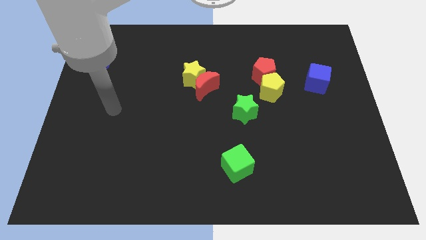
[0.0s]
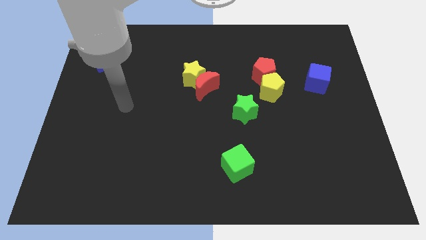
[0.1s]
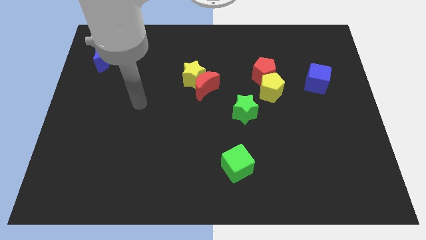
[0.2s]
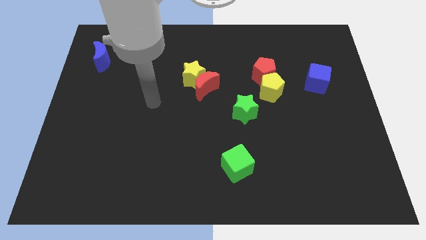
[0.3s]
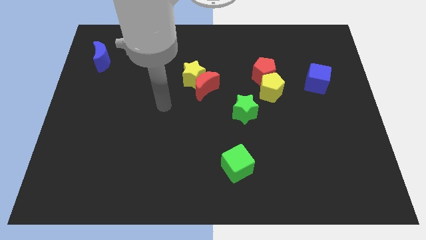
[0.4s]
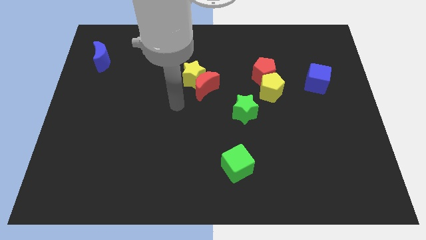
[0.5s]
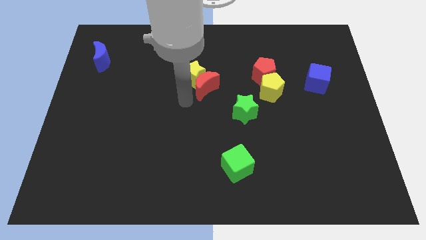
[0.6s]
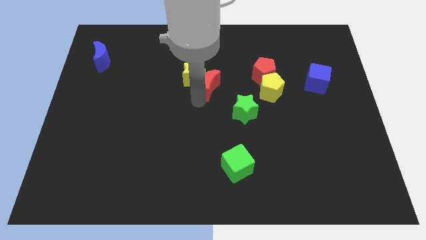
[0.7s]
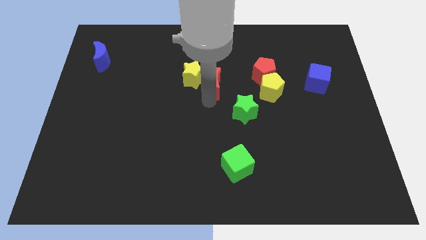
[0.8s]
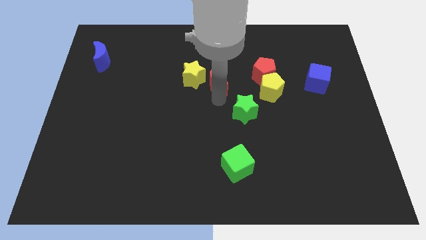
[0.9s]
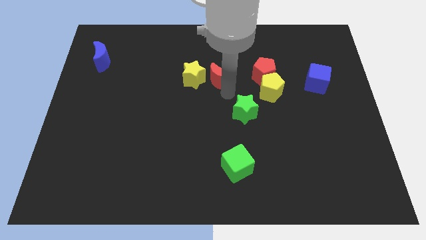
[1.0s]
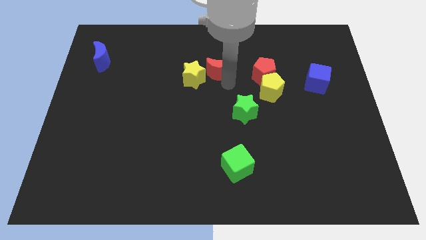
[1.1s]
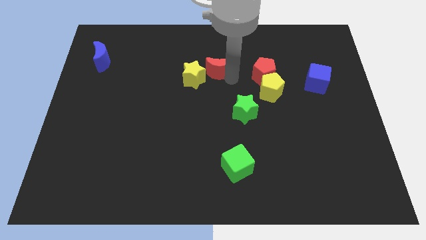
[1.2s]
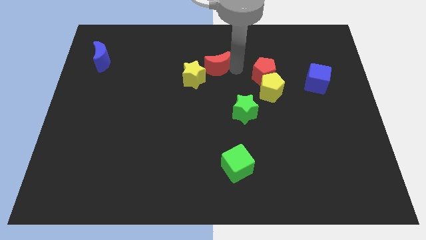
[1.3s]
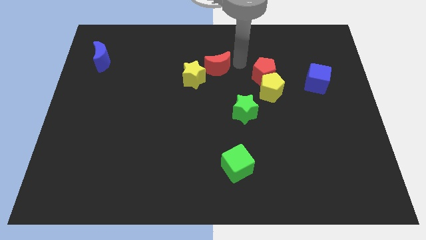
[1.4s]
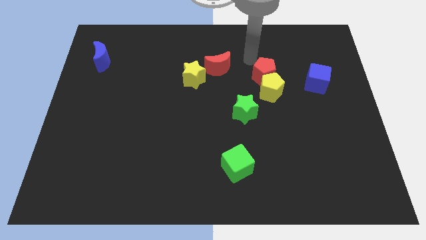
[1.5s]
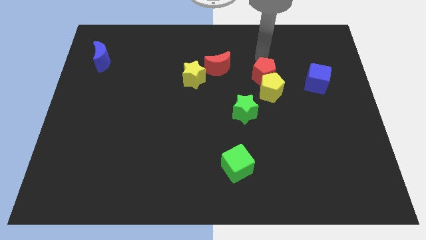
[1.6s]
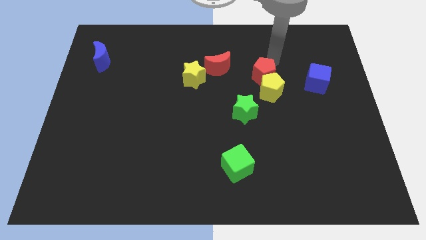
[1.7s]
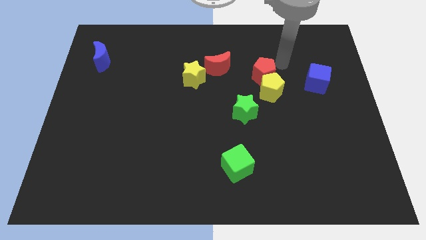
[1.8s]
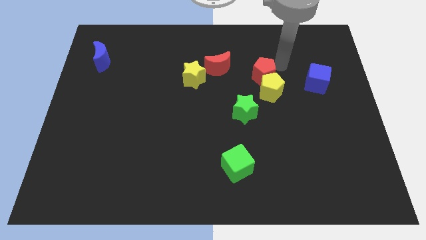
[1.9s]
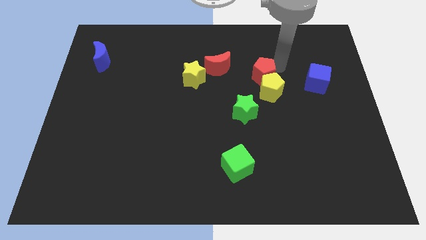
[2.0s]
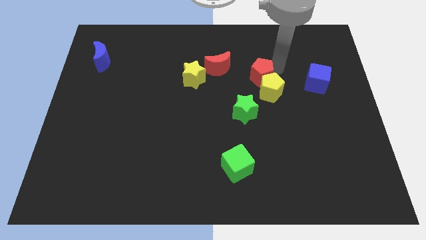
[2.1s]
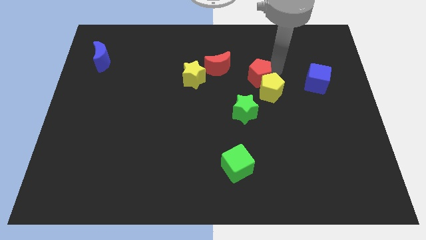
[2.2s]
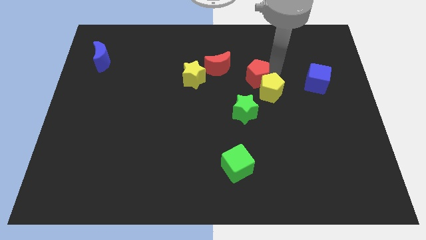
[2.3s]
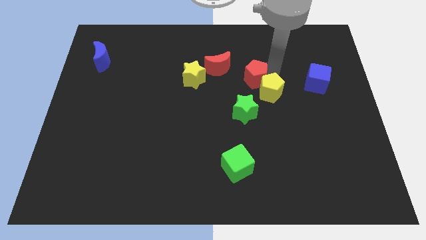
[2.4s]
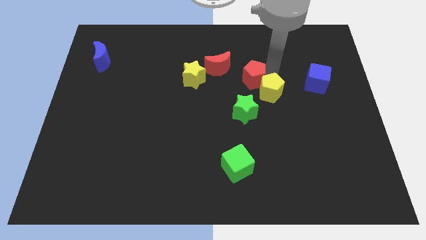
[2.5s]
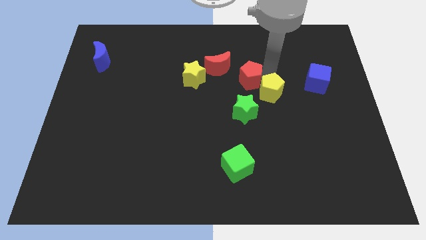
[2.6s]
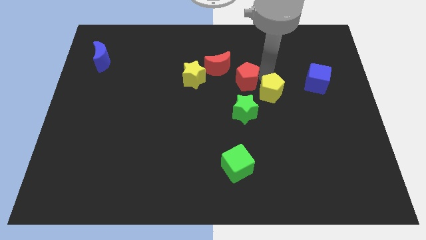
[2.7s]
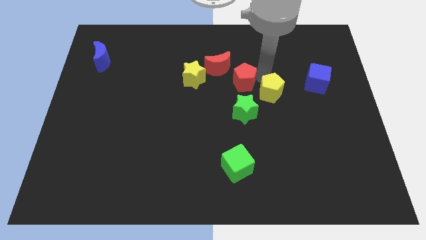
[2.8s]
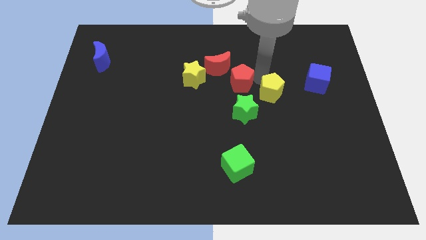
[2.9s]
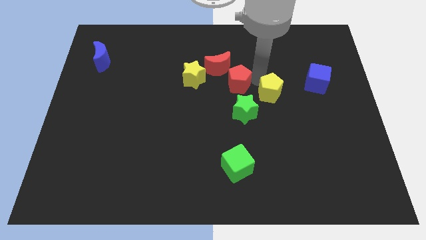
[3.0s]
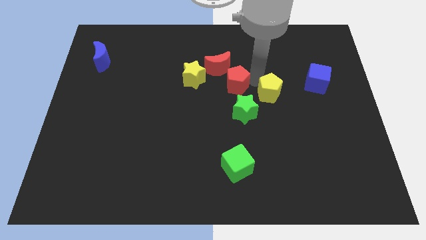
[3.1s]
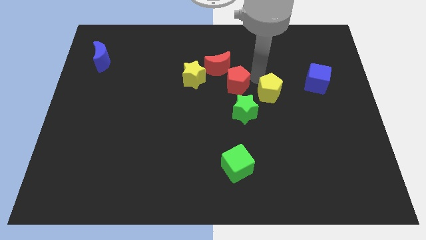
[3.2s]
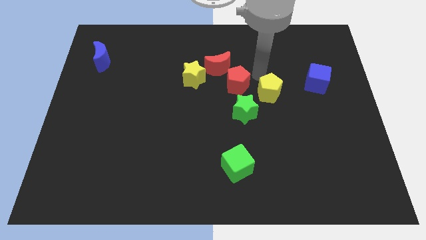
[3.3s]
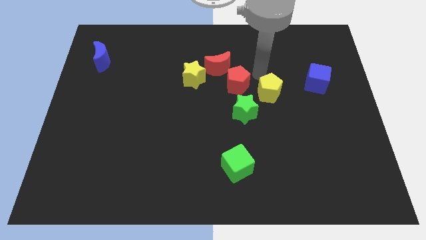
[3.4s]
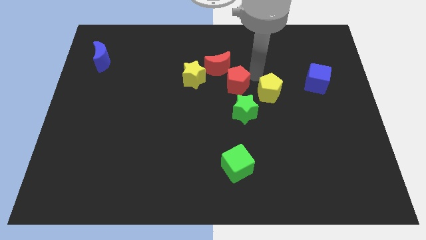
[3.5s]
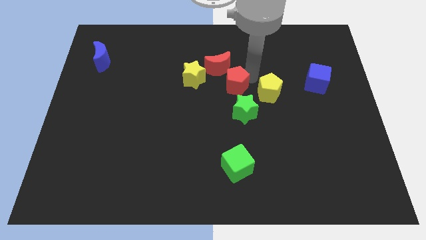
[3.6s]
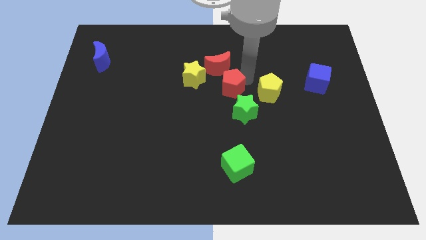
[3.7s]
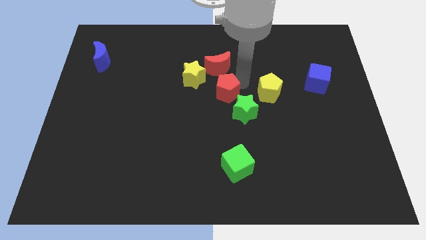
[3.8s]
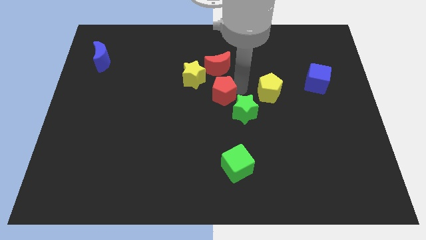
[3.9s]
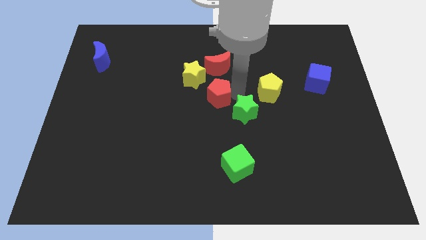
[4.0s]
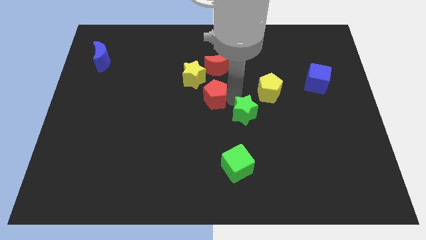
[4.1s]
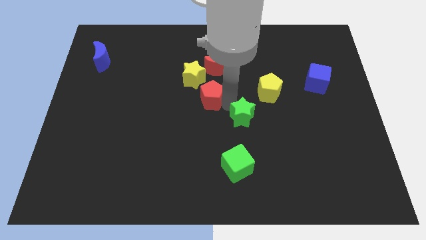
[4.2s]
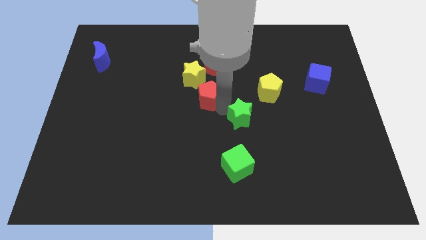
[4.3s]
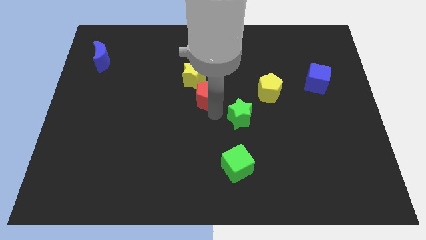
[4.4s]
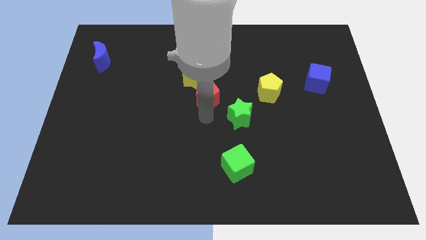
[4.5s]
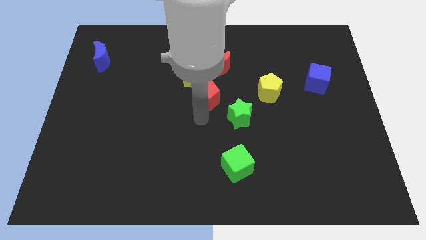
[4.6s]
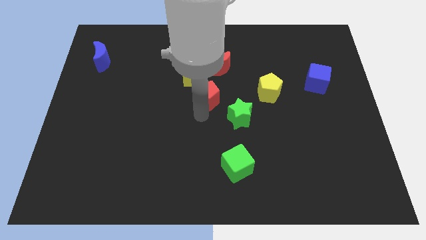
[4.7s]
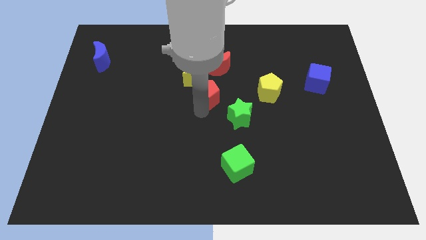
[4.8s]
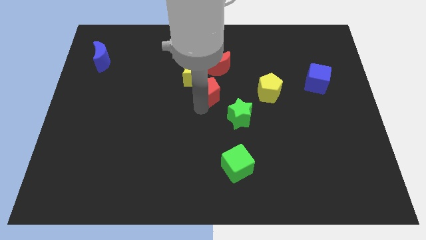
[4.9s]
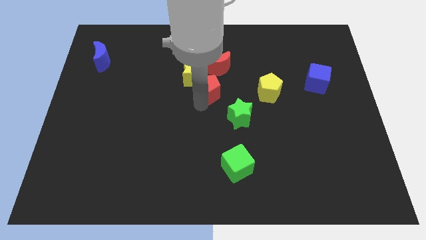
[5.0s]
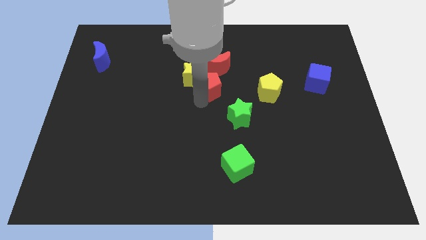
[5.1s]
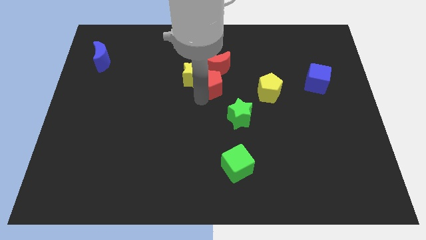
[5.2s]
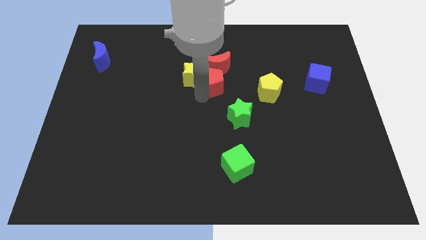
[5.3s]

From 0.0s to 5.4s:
move the red pentagon to the red moon

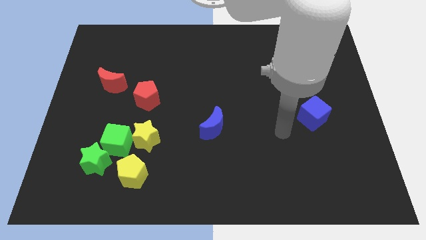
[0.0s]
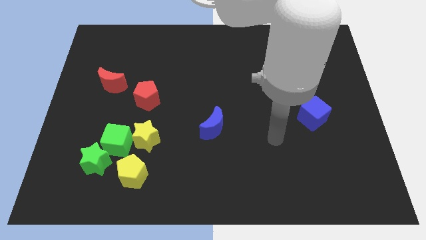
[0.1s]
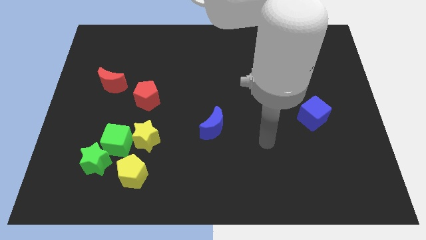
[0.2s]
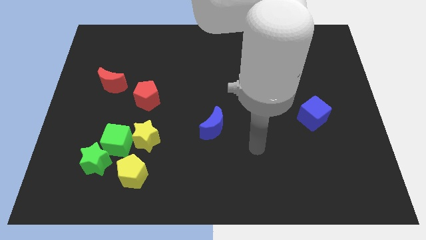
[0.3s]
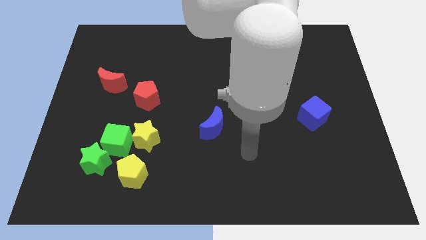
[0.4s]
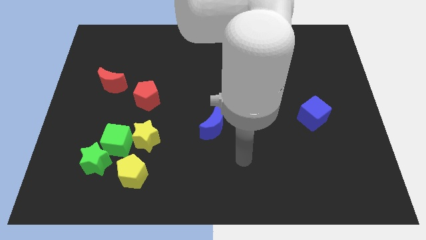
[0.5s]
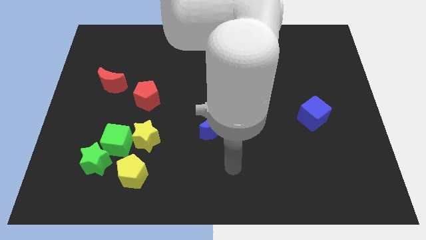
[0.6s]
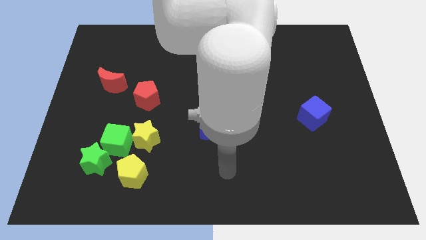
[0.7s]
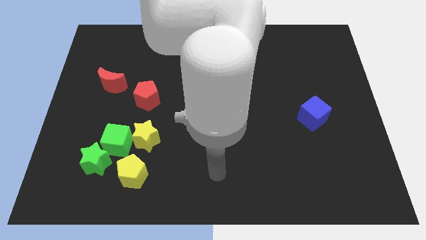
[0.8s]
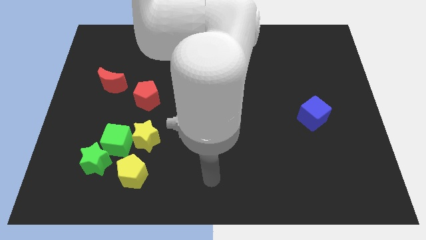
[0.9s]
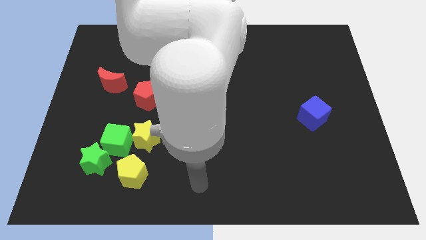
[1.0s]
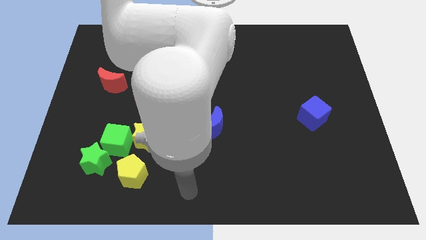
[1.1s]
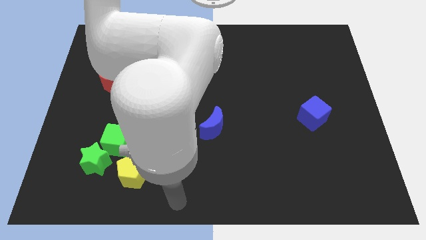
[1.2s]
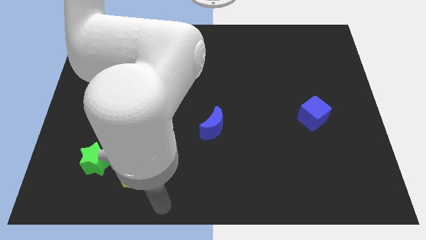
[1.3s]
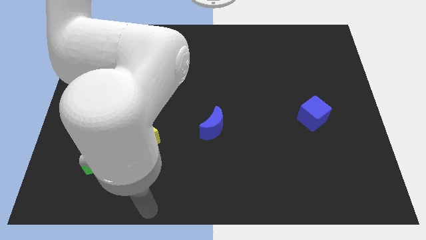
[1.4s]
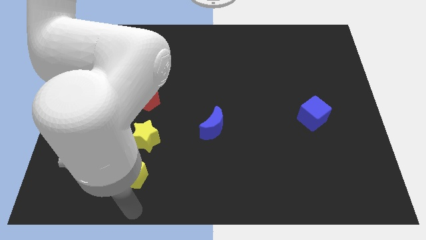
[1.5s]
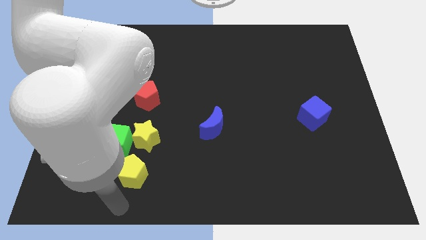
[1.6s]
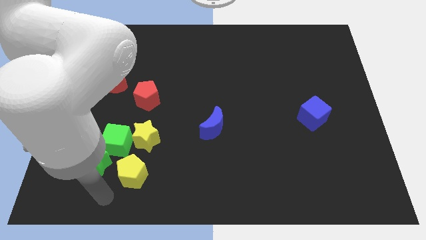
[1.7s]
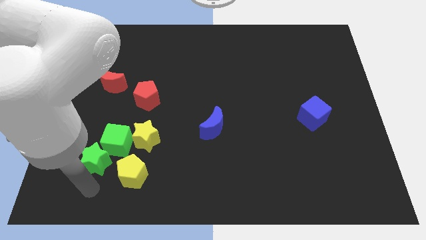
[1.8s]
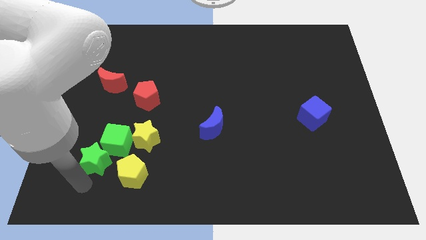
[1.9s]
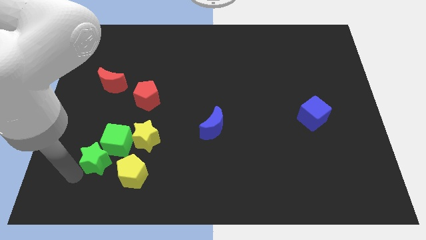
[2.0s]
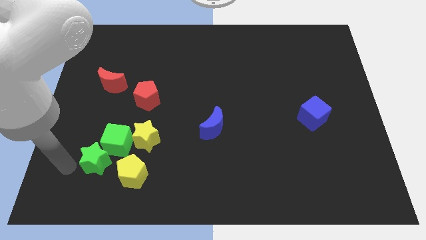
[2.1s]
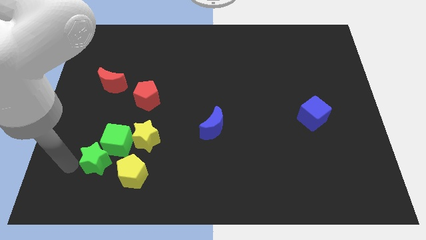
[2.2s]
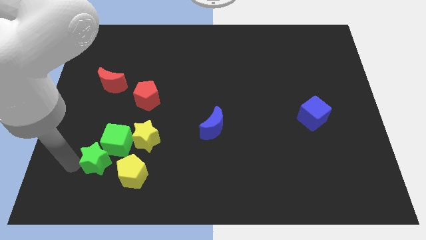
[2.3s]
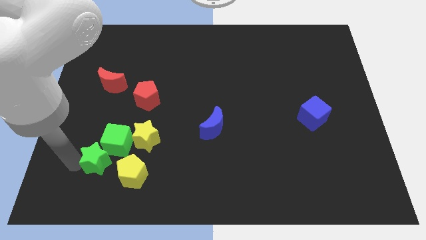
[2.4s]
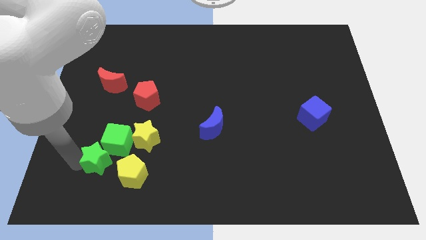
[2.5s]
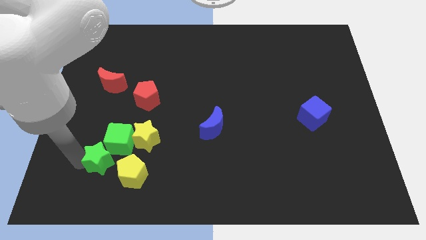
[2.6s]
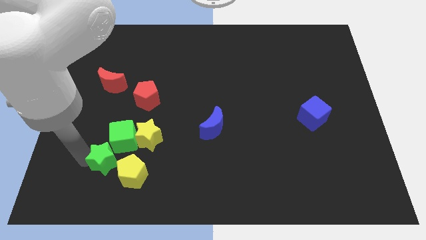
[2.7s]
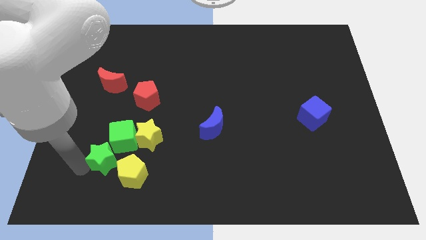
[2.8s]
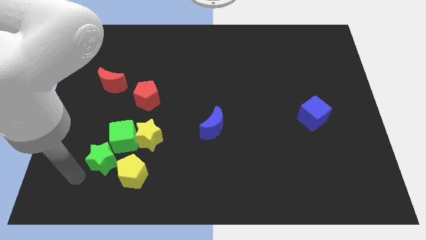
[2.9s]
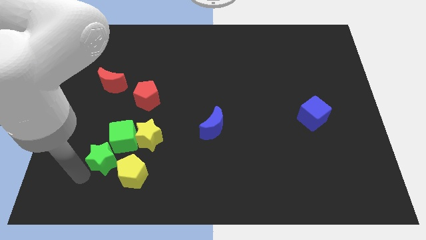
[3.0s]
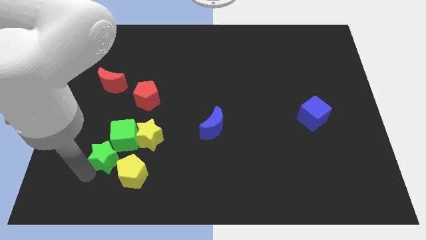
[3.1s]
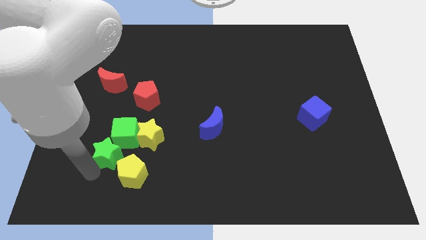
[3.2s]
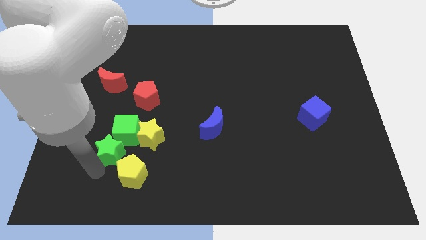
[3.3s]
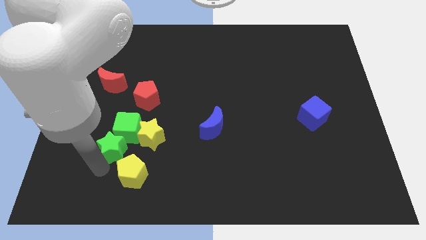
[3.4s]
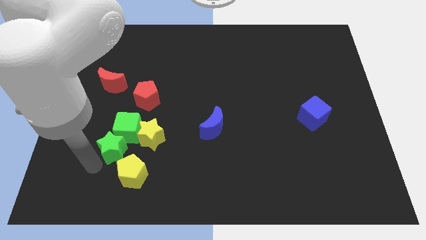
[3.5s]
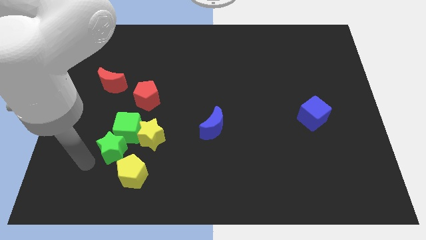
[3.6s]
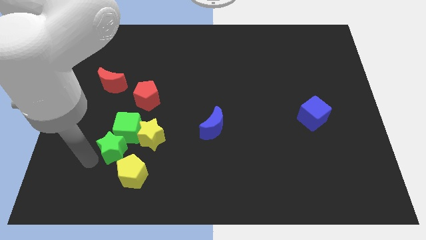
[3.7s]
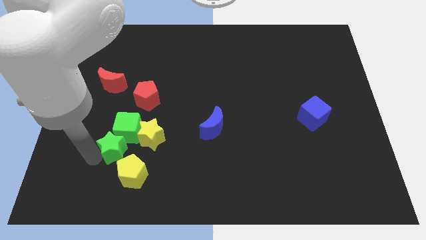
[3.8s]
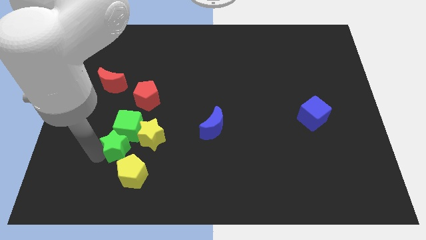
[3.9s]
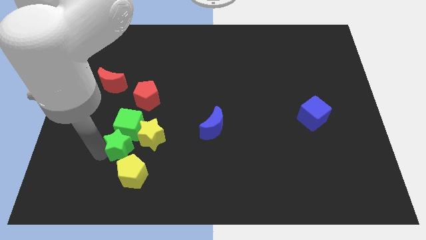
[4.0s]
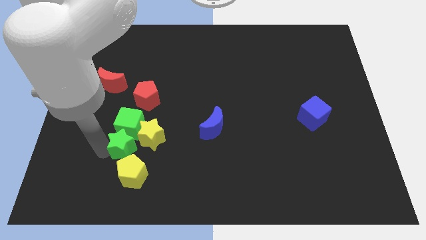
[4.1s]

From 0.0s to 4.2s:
slide the green star close to the yellow star
